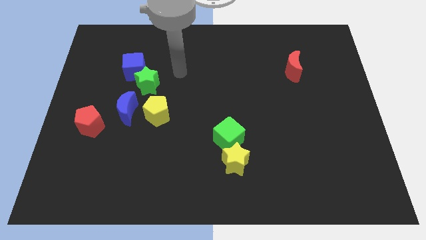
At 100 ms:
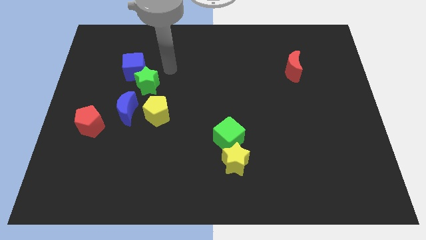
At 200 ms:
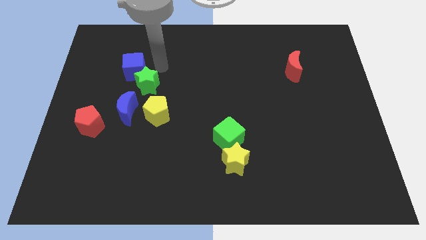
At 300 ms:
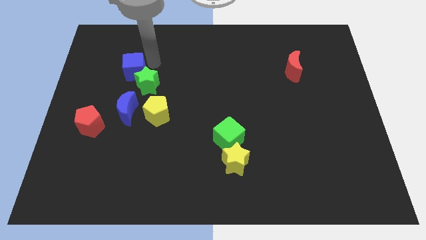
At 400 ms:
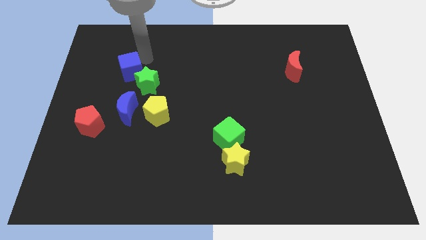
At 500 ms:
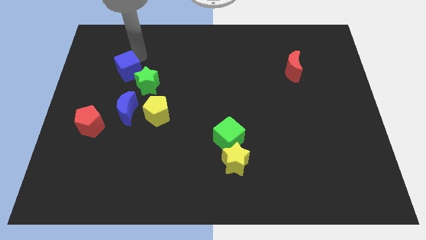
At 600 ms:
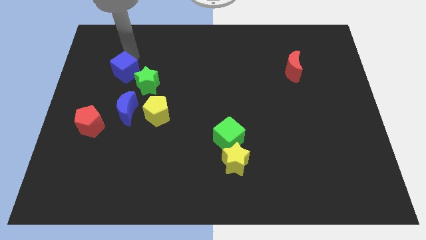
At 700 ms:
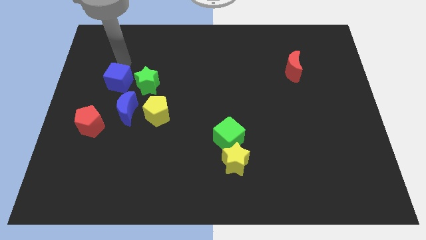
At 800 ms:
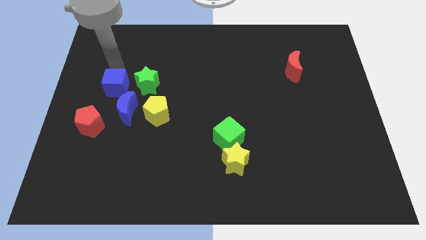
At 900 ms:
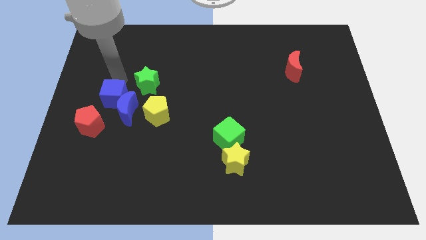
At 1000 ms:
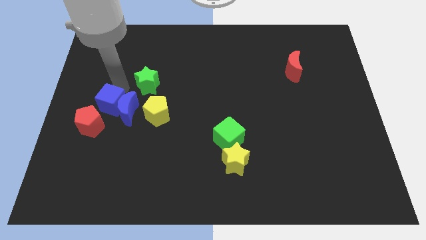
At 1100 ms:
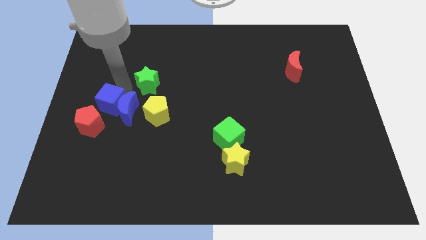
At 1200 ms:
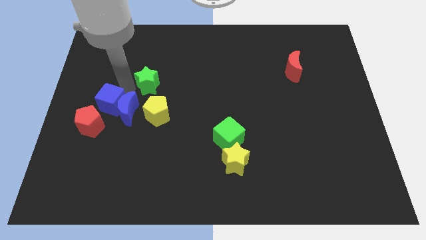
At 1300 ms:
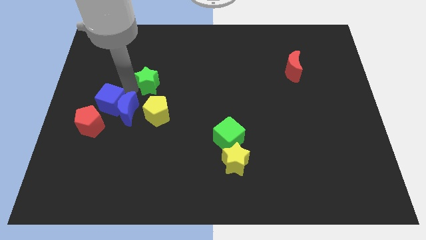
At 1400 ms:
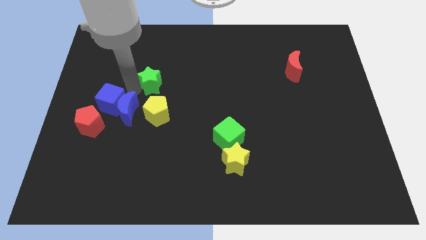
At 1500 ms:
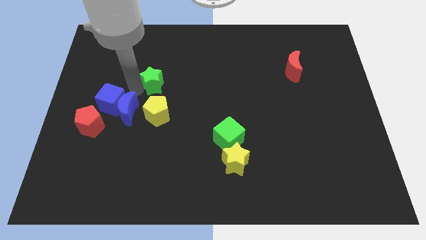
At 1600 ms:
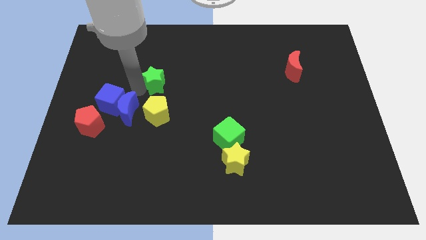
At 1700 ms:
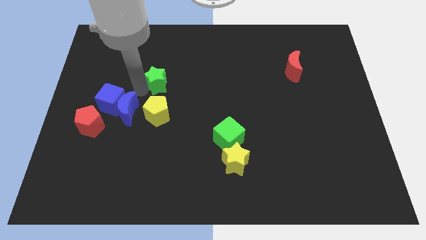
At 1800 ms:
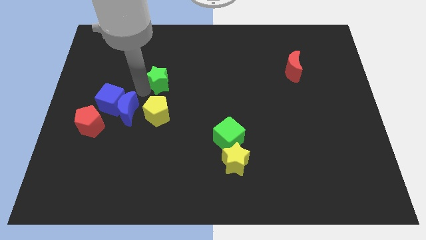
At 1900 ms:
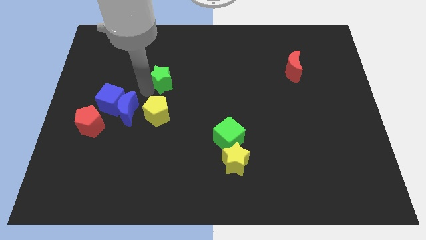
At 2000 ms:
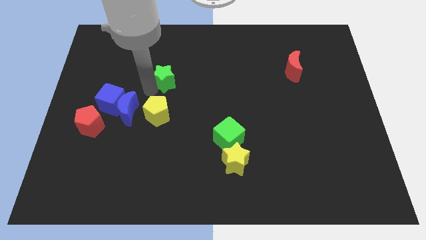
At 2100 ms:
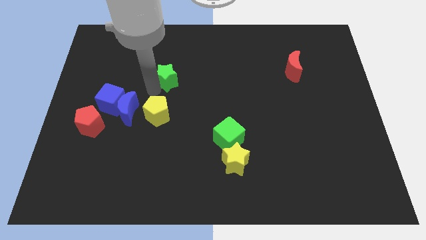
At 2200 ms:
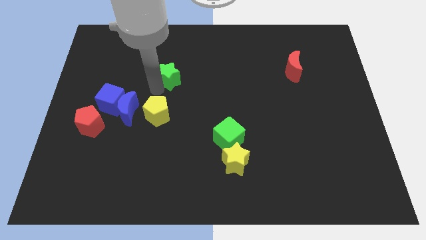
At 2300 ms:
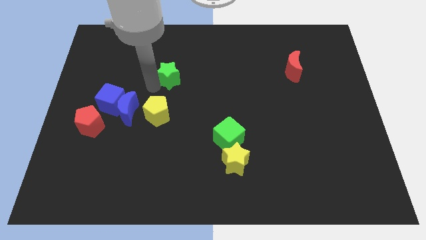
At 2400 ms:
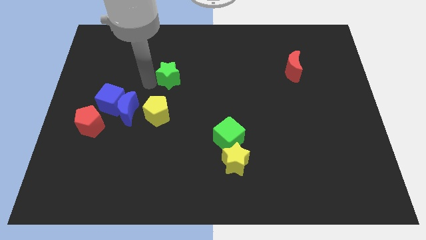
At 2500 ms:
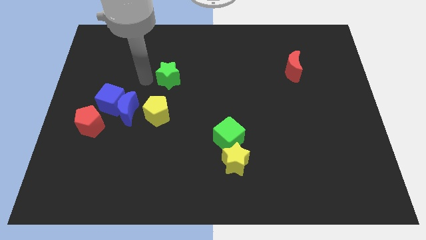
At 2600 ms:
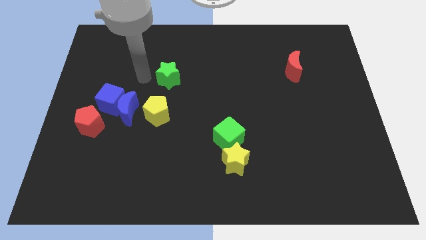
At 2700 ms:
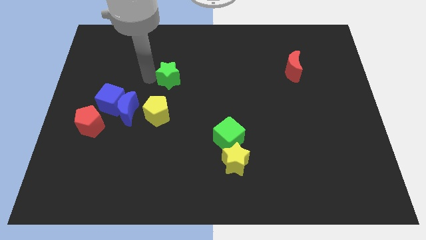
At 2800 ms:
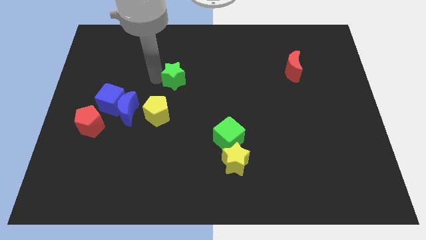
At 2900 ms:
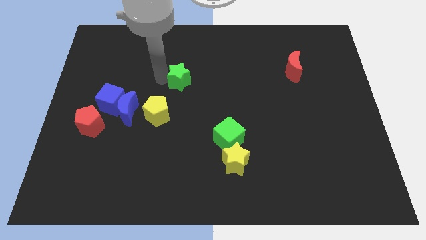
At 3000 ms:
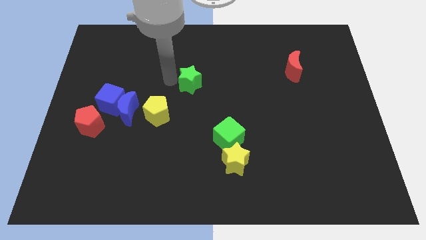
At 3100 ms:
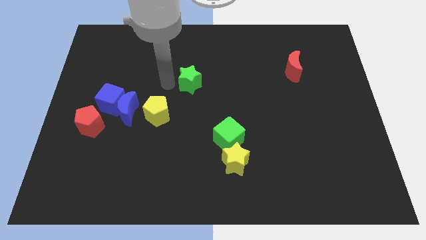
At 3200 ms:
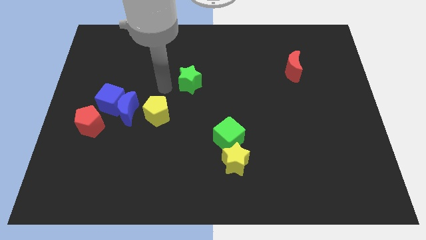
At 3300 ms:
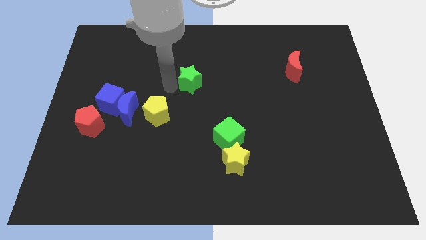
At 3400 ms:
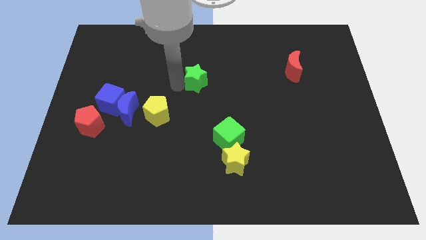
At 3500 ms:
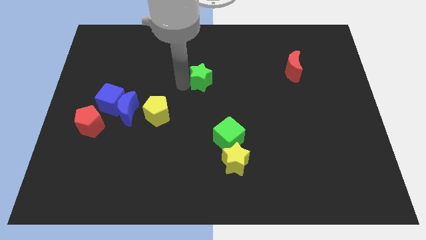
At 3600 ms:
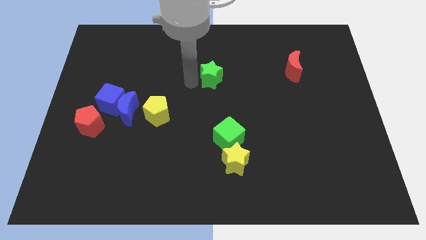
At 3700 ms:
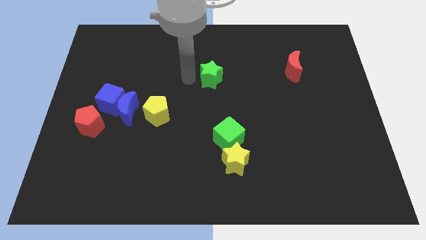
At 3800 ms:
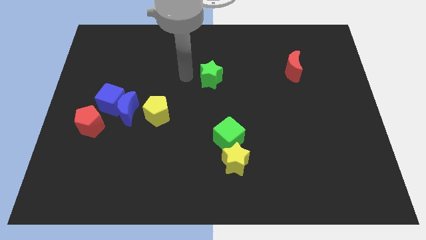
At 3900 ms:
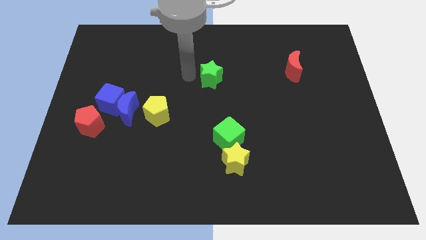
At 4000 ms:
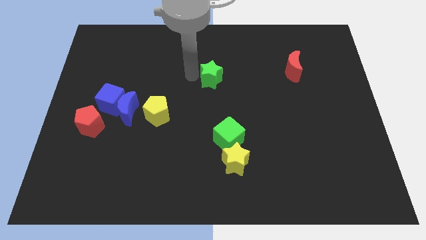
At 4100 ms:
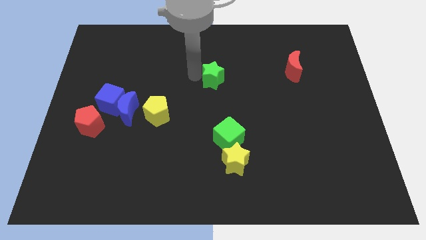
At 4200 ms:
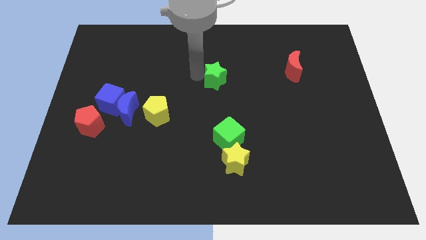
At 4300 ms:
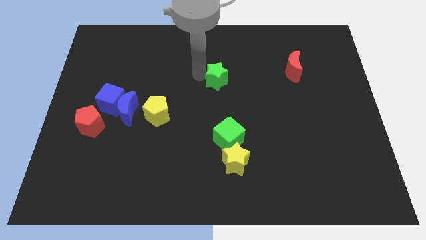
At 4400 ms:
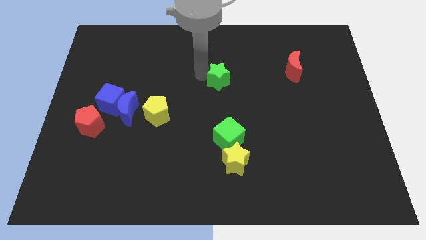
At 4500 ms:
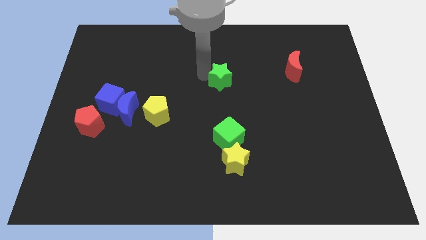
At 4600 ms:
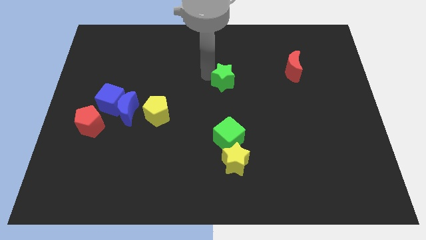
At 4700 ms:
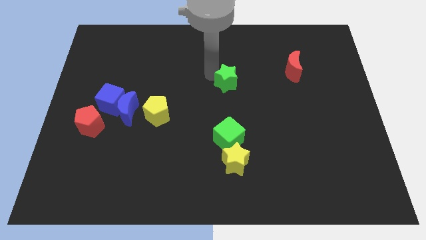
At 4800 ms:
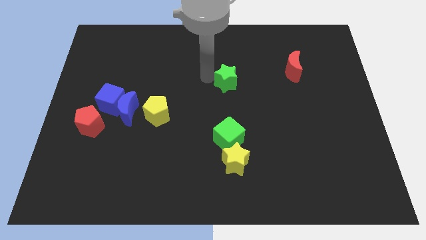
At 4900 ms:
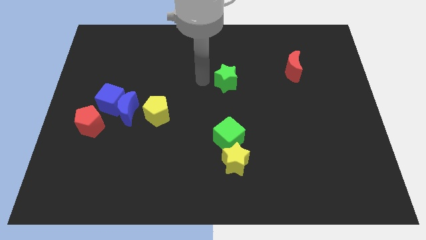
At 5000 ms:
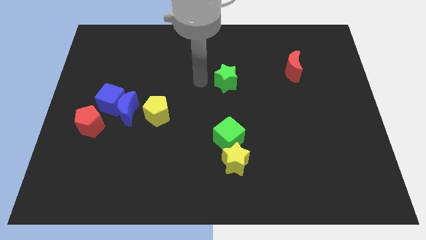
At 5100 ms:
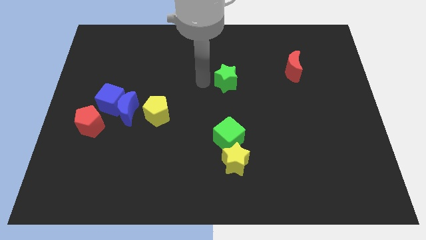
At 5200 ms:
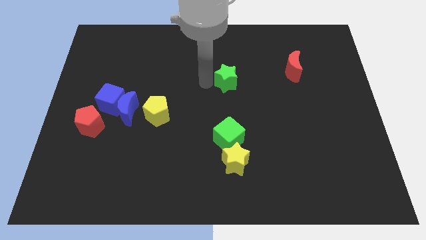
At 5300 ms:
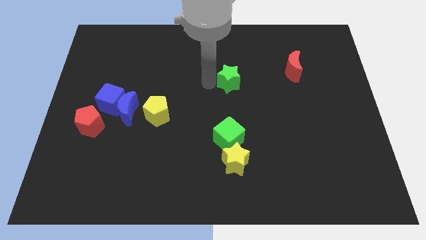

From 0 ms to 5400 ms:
push the green star right

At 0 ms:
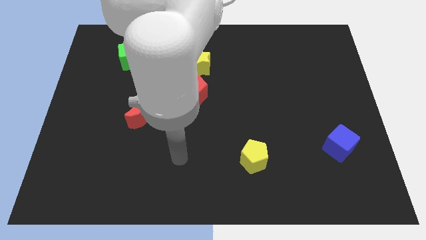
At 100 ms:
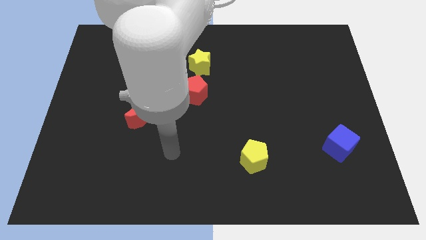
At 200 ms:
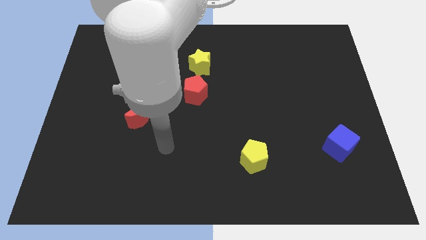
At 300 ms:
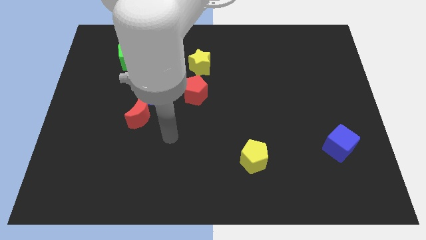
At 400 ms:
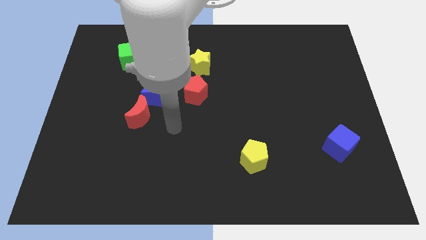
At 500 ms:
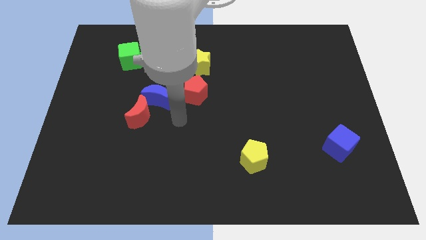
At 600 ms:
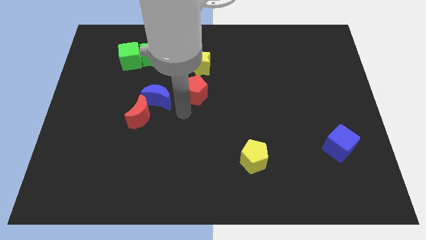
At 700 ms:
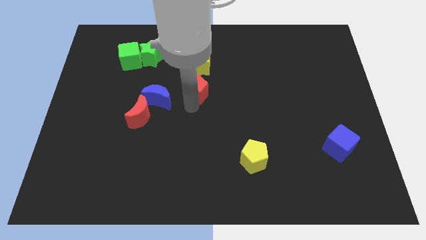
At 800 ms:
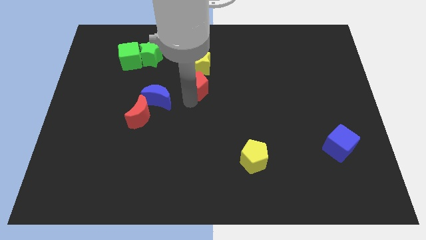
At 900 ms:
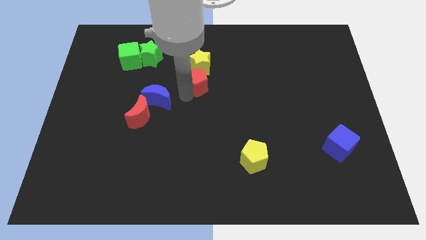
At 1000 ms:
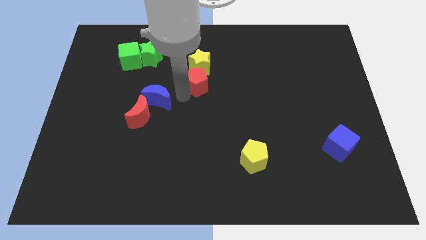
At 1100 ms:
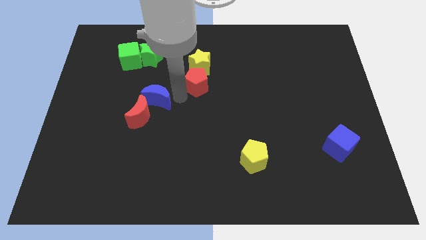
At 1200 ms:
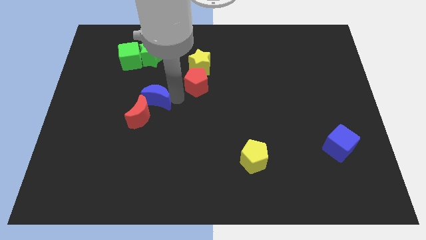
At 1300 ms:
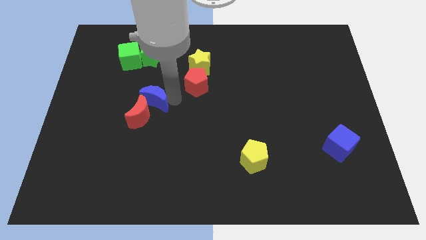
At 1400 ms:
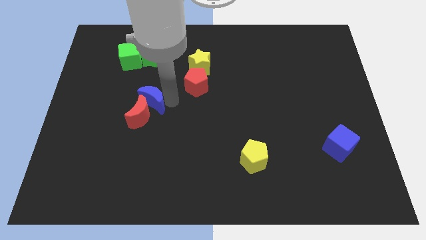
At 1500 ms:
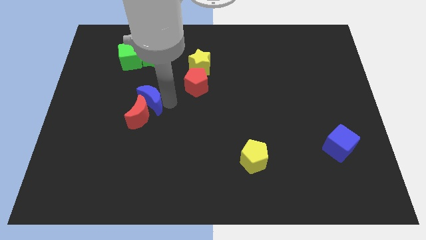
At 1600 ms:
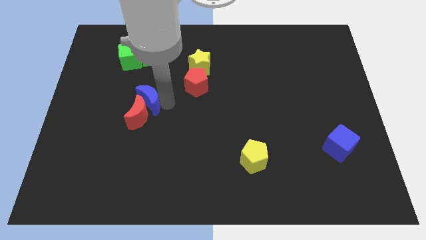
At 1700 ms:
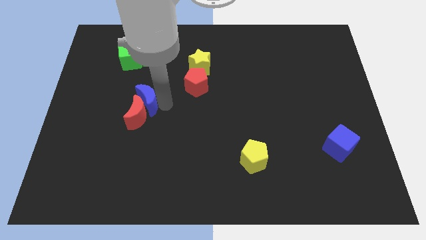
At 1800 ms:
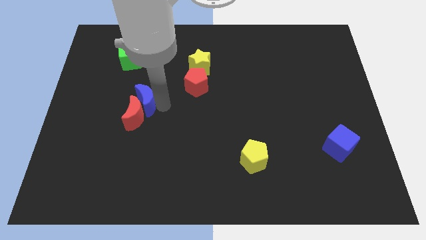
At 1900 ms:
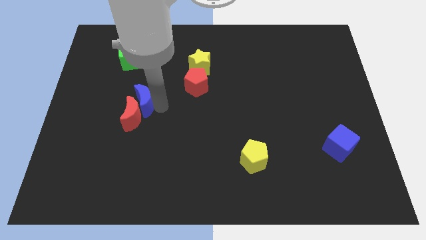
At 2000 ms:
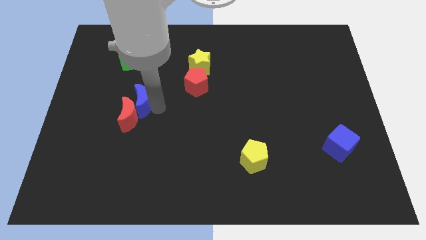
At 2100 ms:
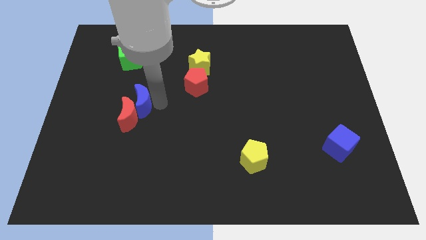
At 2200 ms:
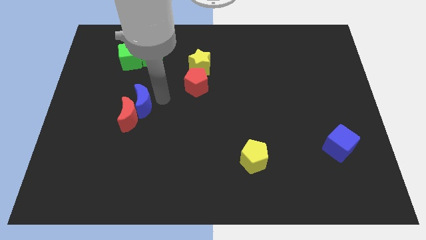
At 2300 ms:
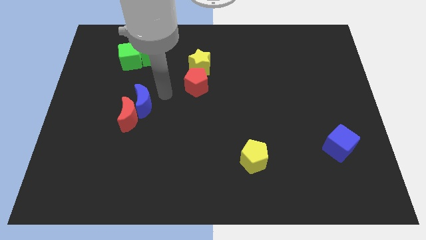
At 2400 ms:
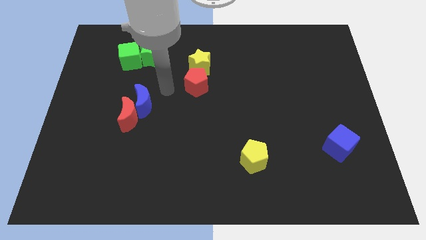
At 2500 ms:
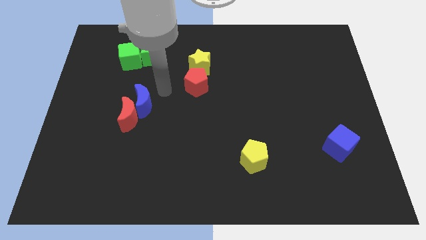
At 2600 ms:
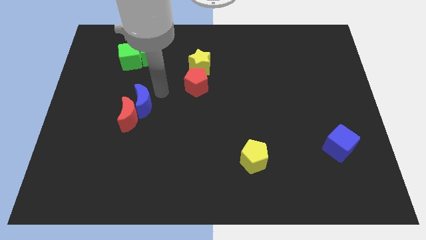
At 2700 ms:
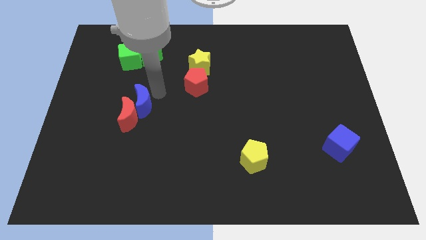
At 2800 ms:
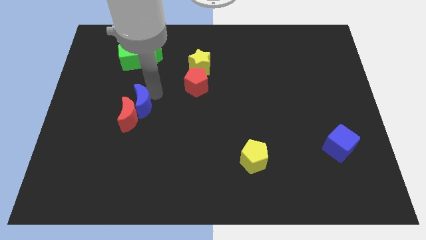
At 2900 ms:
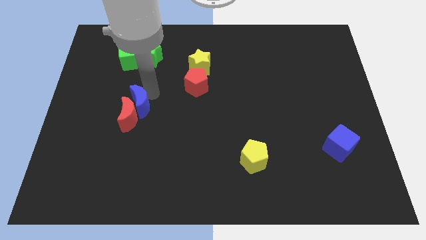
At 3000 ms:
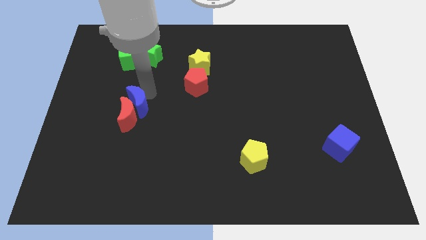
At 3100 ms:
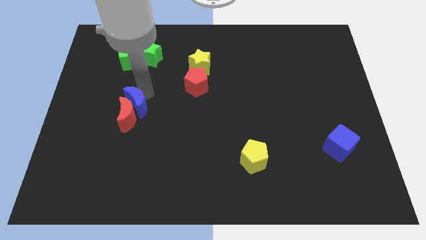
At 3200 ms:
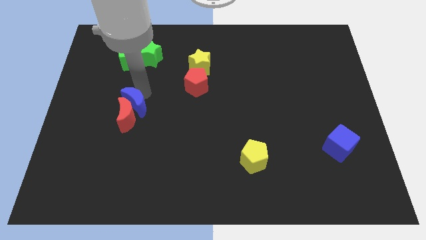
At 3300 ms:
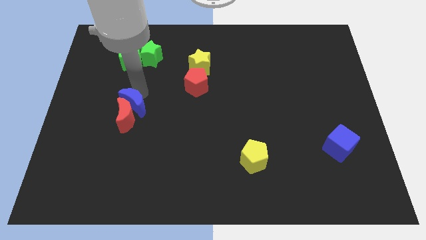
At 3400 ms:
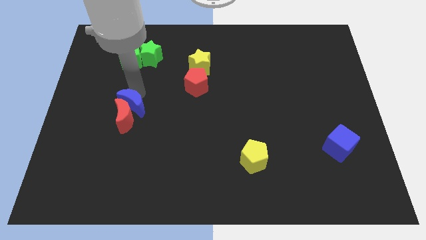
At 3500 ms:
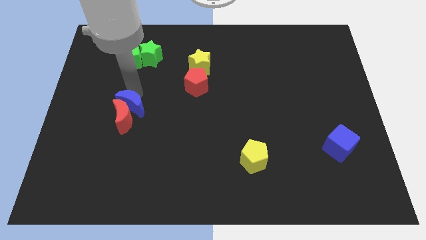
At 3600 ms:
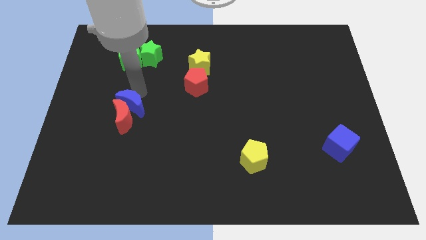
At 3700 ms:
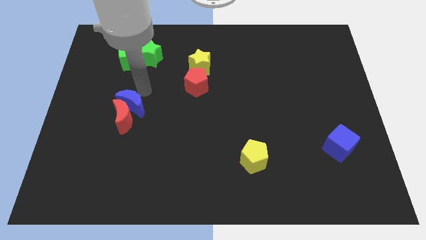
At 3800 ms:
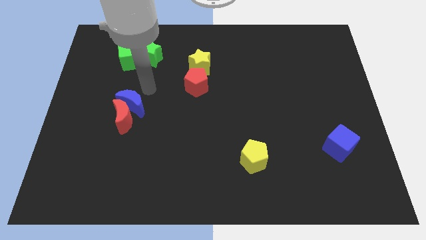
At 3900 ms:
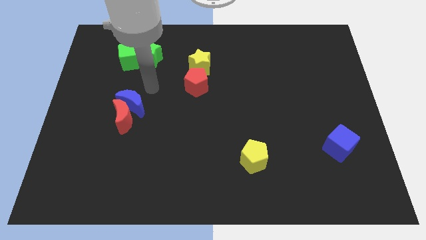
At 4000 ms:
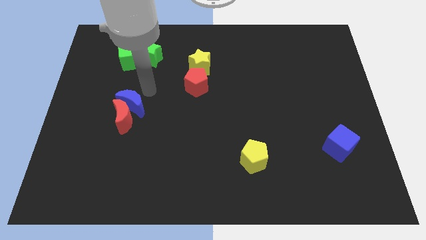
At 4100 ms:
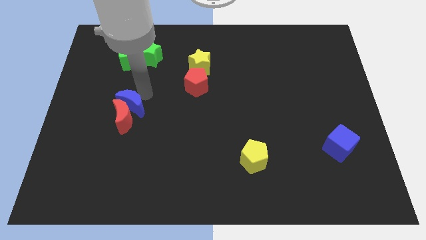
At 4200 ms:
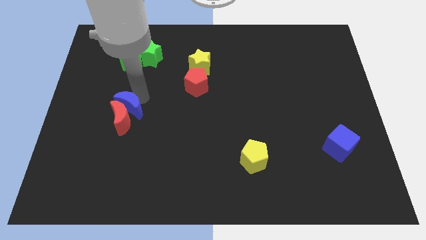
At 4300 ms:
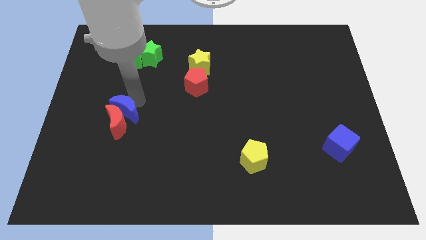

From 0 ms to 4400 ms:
move the blue moon somewhat down and to the left diagonally
